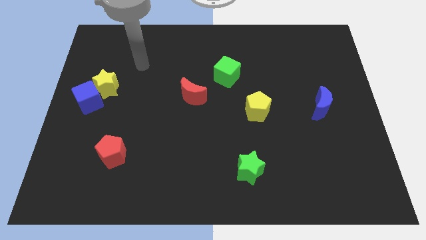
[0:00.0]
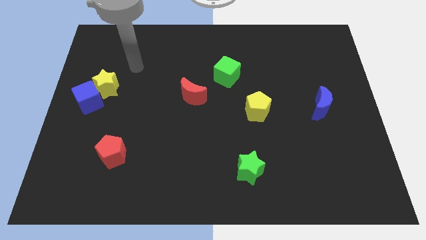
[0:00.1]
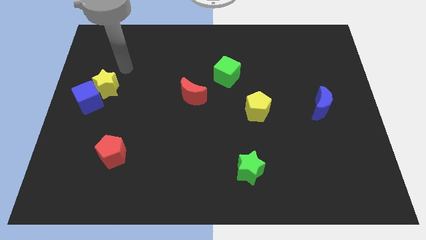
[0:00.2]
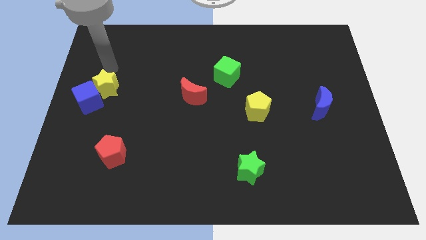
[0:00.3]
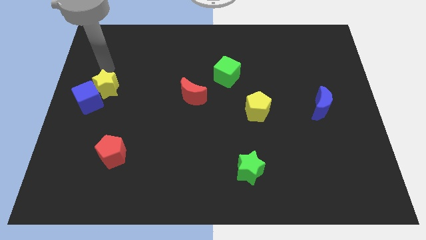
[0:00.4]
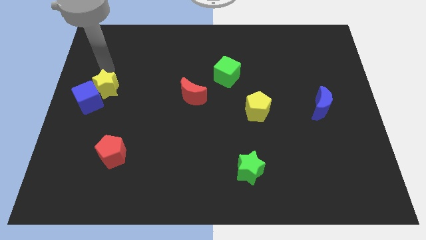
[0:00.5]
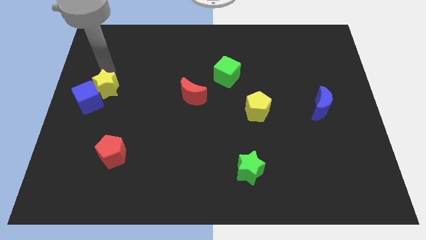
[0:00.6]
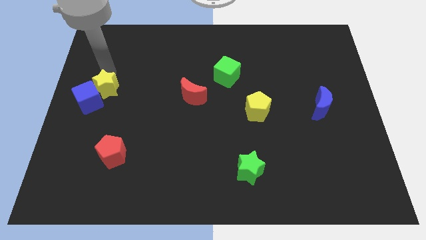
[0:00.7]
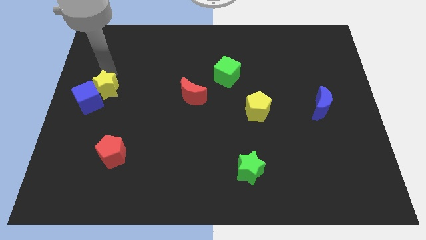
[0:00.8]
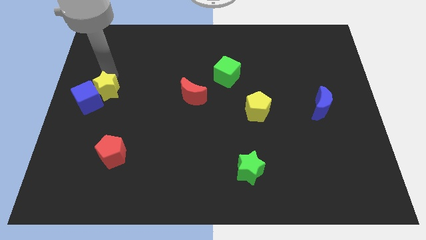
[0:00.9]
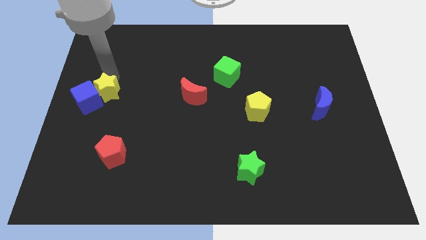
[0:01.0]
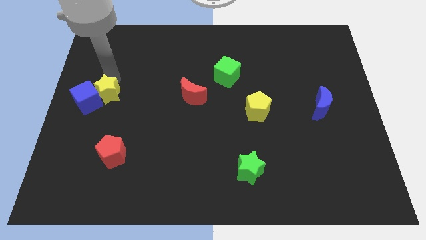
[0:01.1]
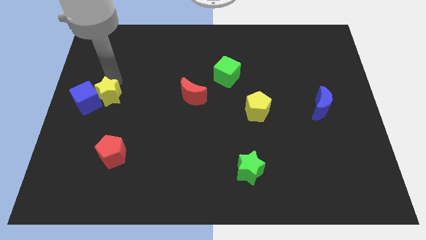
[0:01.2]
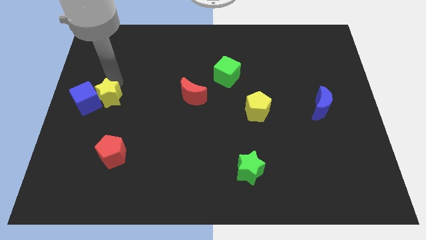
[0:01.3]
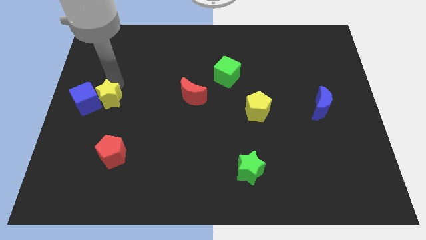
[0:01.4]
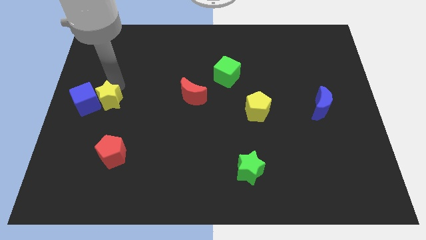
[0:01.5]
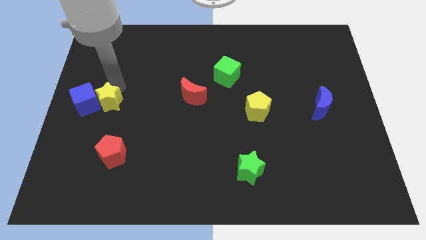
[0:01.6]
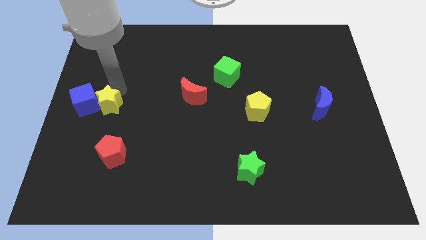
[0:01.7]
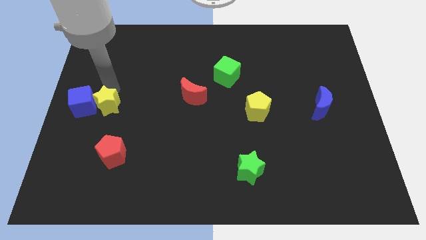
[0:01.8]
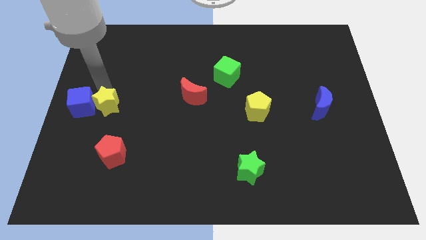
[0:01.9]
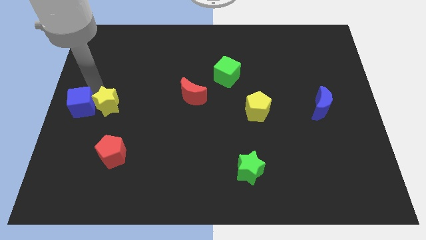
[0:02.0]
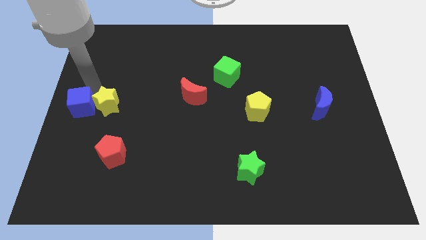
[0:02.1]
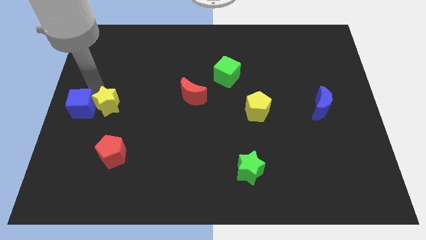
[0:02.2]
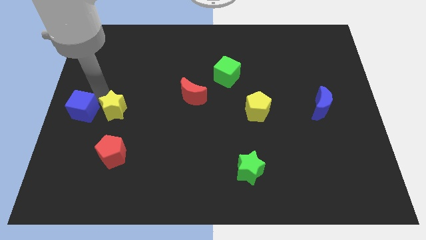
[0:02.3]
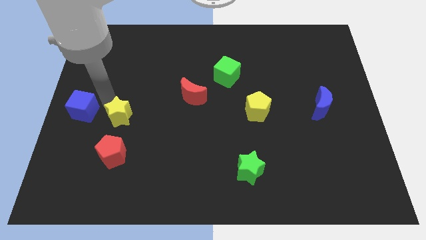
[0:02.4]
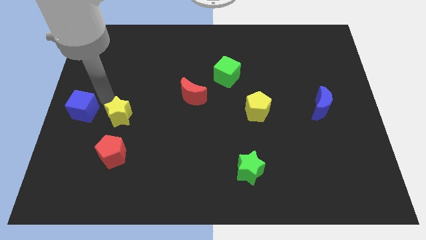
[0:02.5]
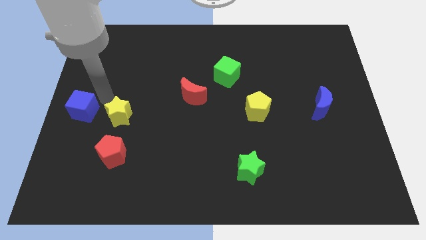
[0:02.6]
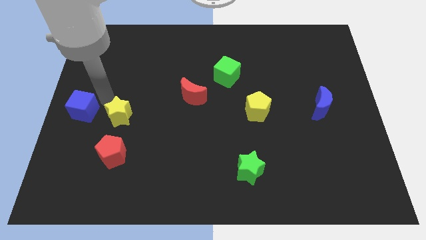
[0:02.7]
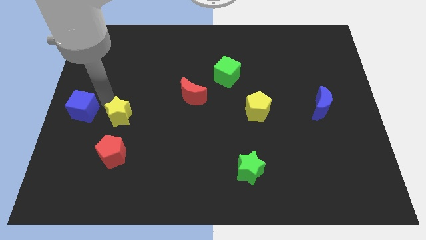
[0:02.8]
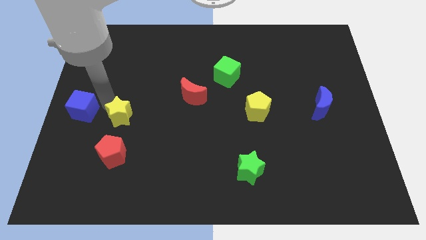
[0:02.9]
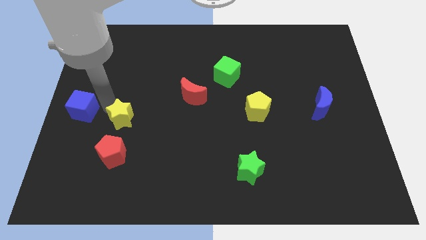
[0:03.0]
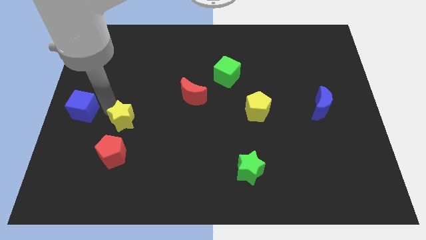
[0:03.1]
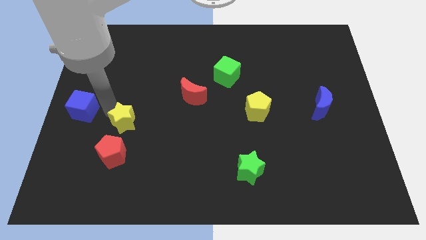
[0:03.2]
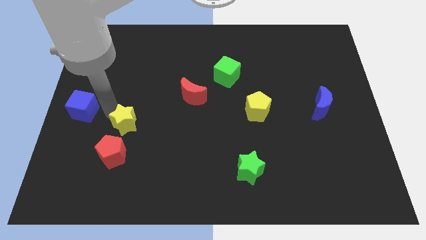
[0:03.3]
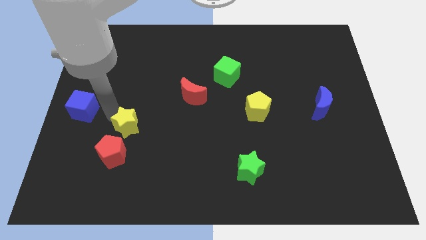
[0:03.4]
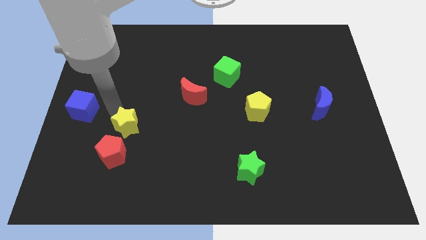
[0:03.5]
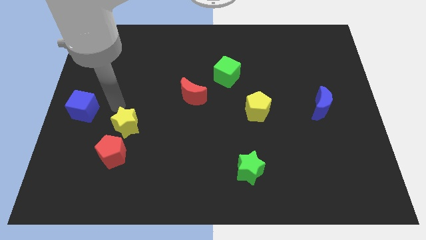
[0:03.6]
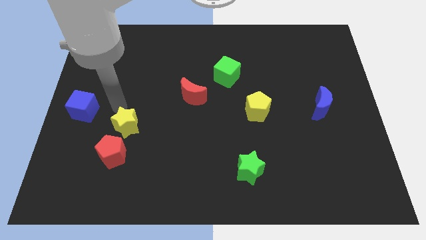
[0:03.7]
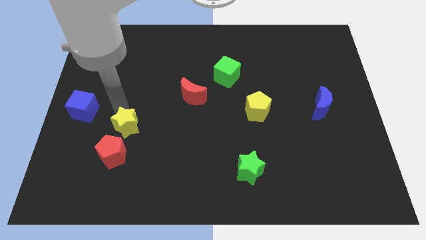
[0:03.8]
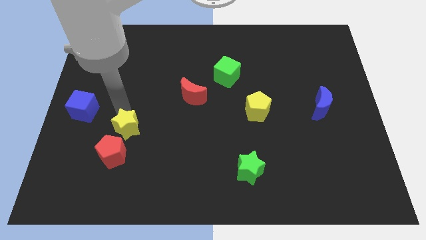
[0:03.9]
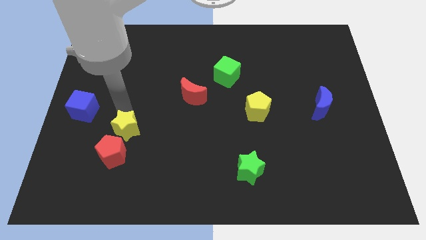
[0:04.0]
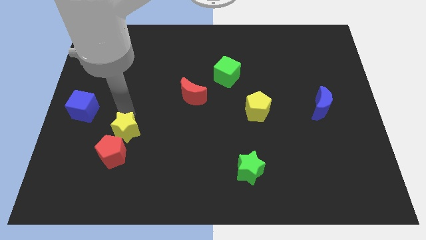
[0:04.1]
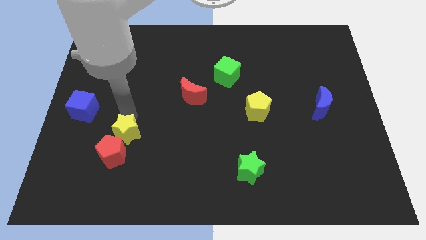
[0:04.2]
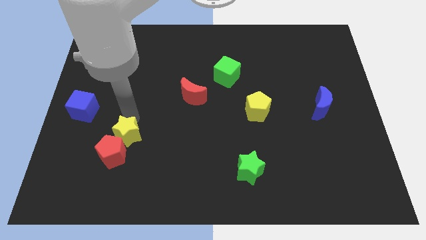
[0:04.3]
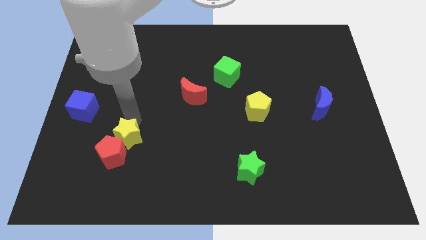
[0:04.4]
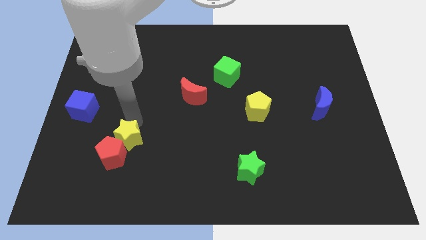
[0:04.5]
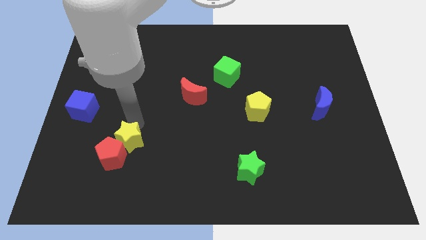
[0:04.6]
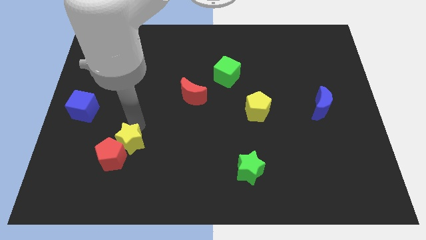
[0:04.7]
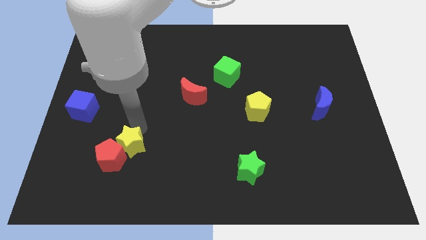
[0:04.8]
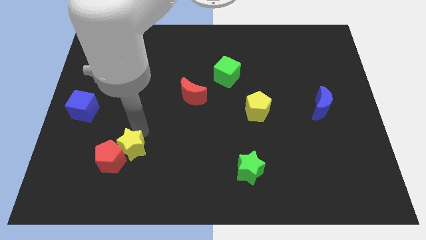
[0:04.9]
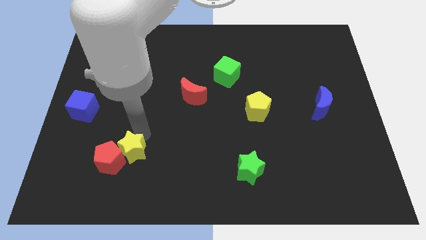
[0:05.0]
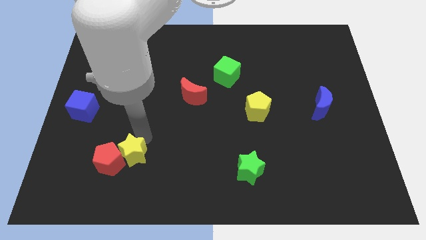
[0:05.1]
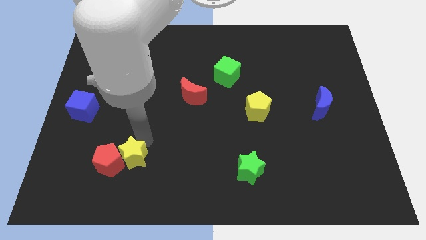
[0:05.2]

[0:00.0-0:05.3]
push the yellow star to the bottom right of the red pentagon
